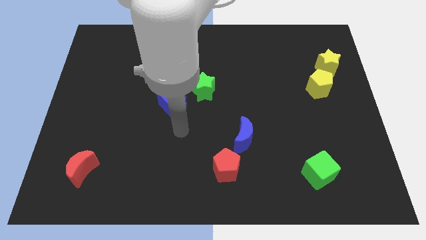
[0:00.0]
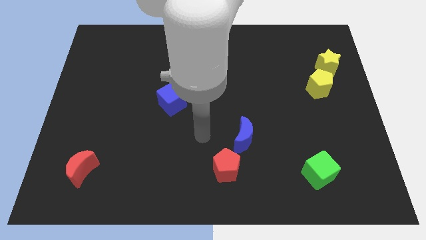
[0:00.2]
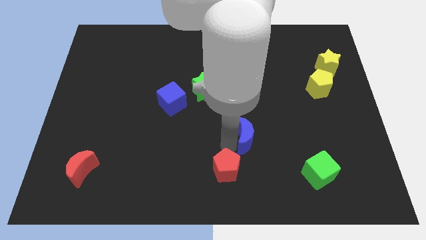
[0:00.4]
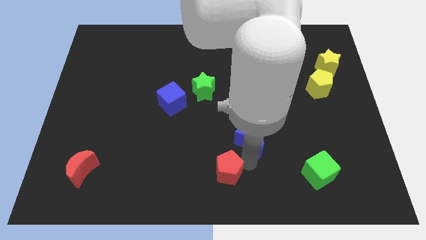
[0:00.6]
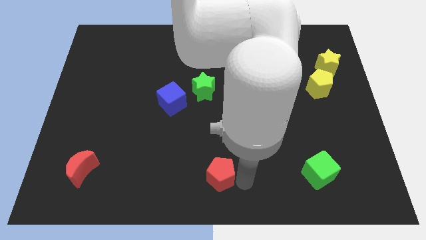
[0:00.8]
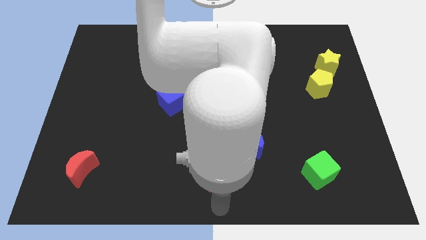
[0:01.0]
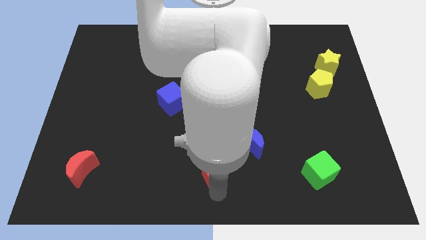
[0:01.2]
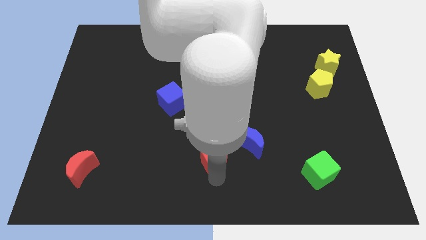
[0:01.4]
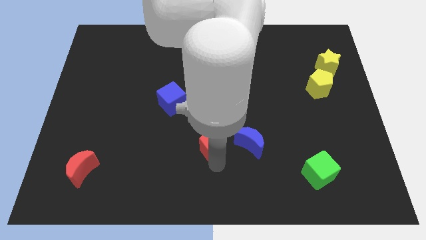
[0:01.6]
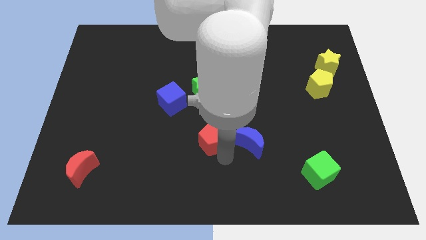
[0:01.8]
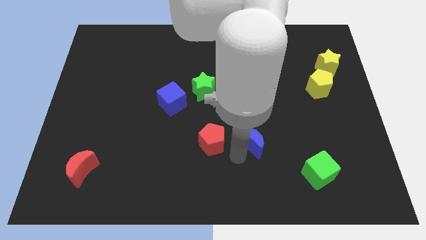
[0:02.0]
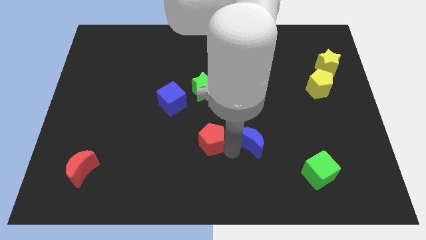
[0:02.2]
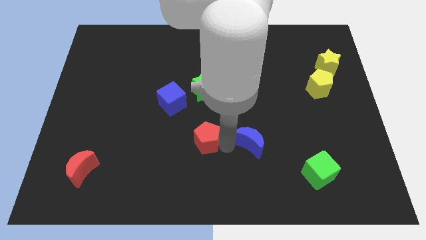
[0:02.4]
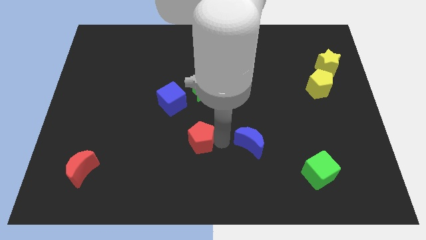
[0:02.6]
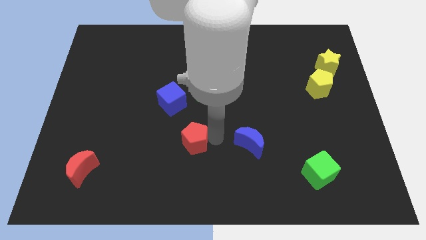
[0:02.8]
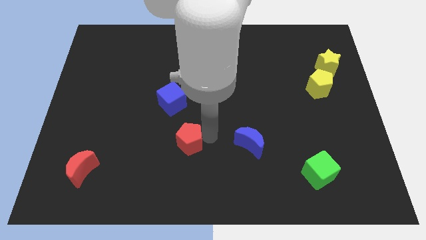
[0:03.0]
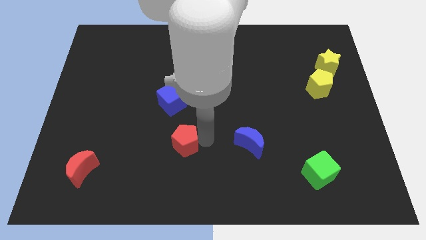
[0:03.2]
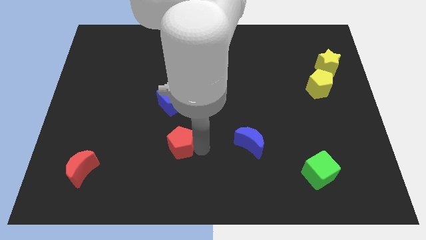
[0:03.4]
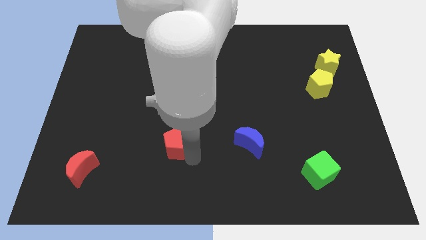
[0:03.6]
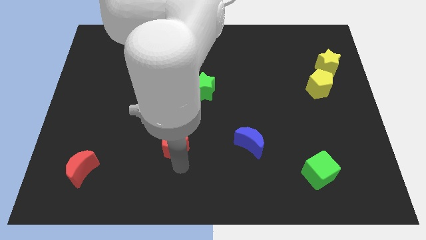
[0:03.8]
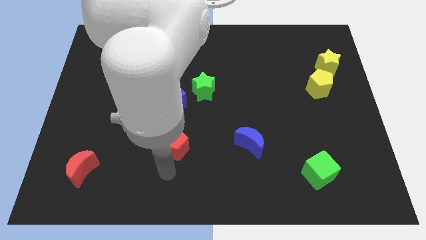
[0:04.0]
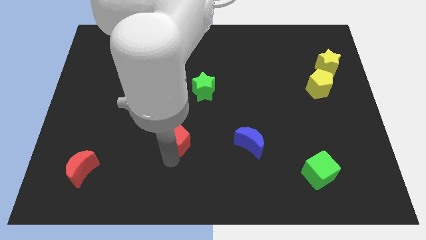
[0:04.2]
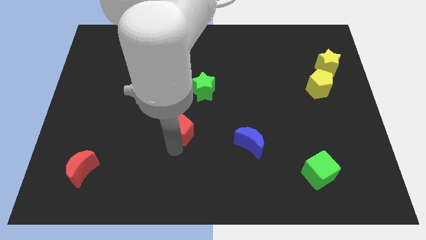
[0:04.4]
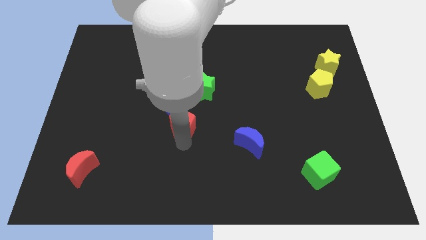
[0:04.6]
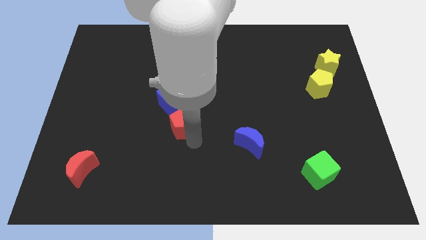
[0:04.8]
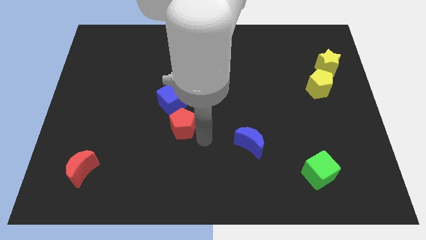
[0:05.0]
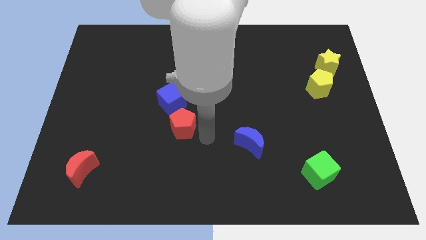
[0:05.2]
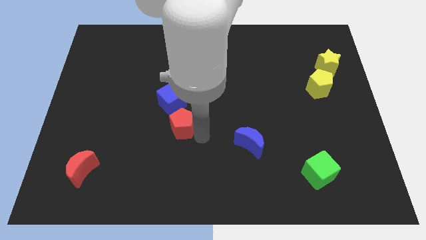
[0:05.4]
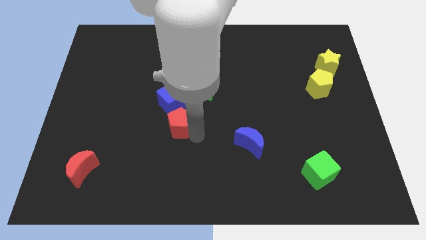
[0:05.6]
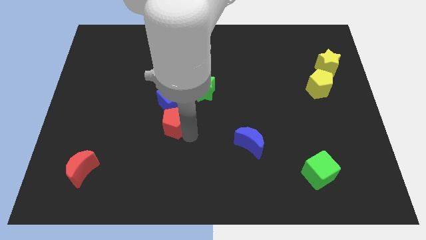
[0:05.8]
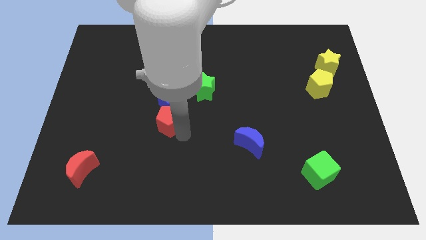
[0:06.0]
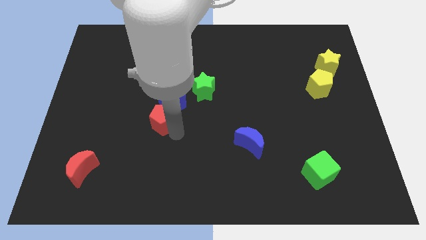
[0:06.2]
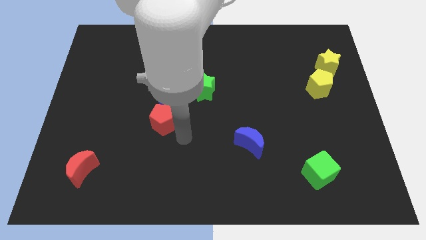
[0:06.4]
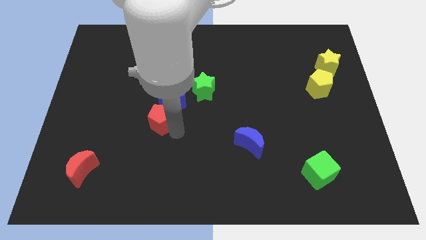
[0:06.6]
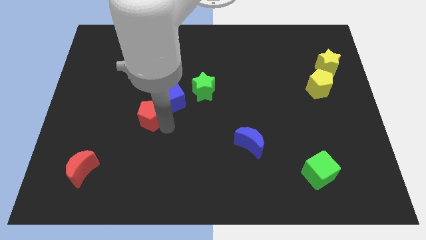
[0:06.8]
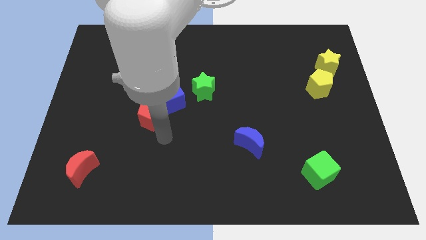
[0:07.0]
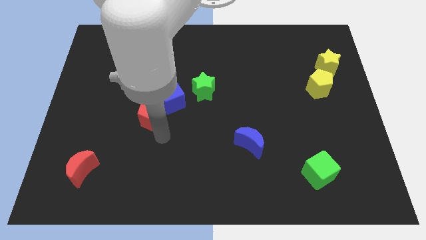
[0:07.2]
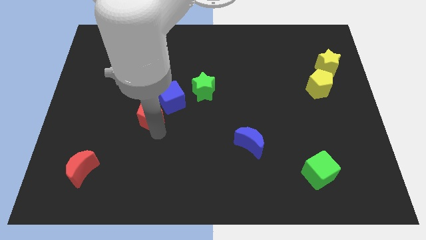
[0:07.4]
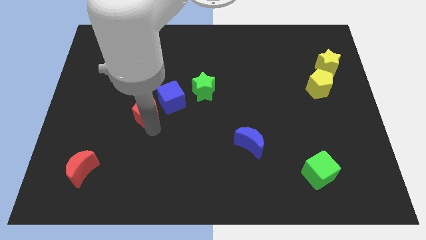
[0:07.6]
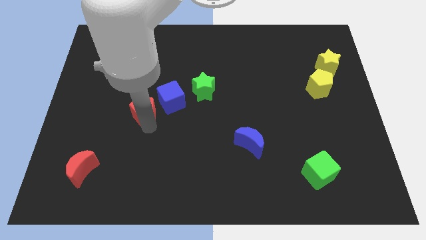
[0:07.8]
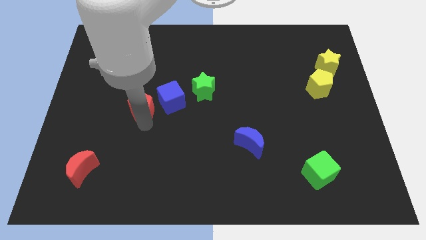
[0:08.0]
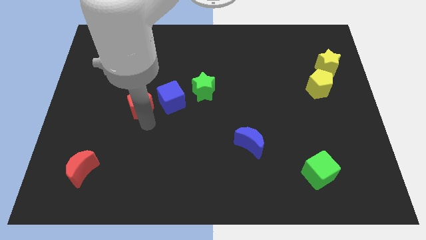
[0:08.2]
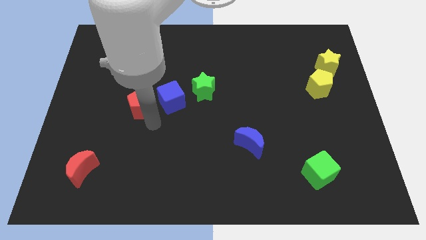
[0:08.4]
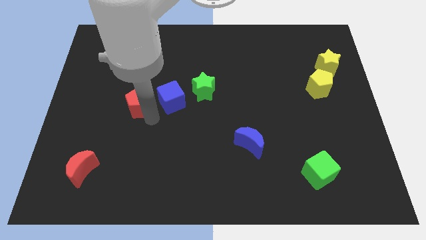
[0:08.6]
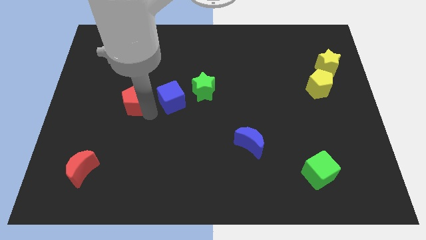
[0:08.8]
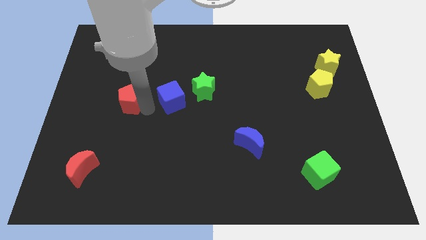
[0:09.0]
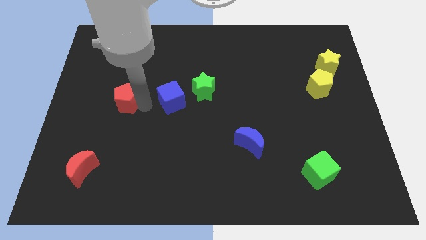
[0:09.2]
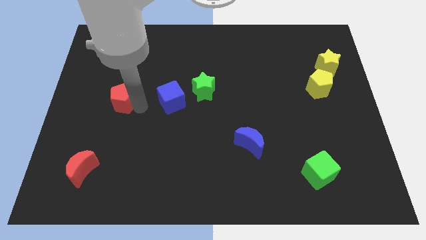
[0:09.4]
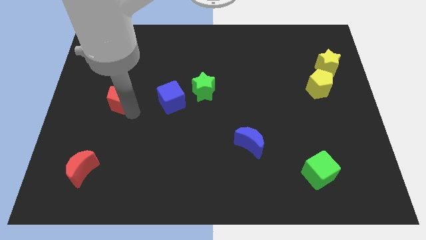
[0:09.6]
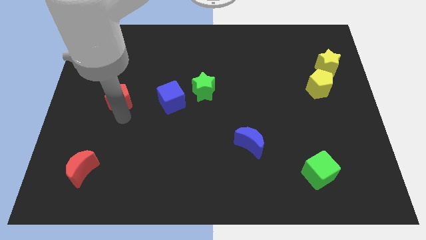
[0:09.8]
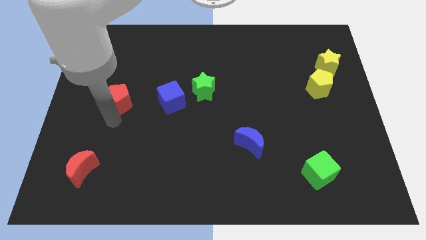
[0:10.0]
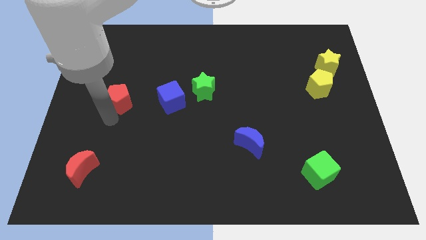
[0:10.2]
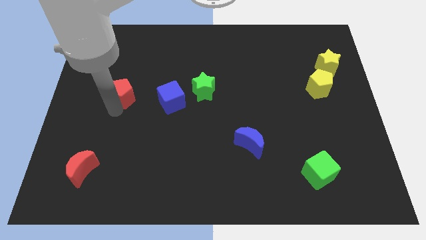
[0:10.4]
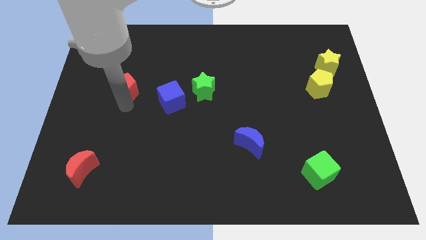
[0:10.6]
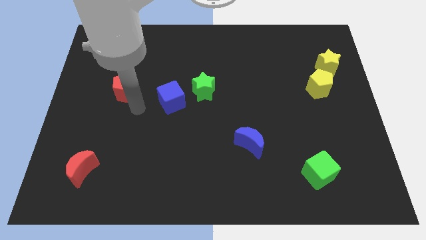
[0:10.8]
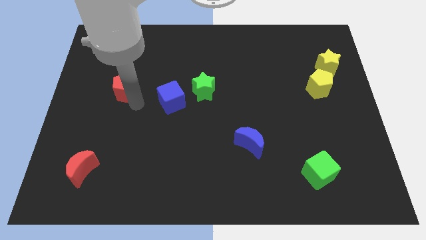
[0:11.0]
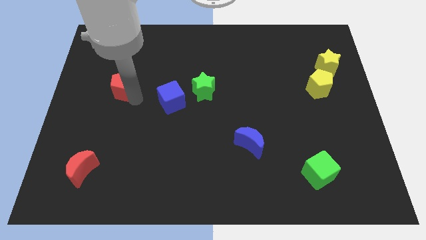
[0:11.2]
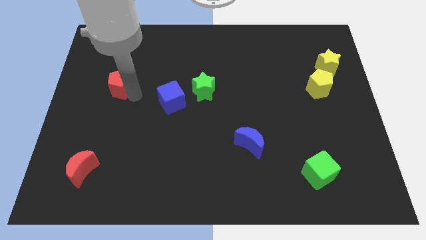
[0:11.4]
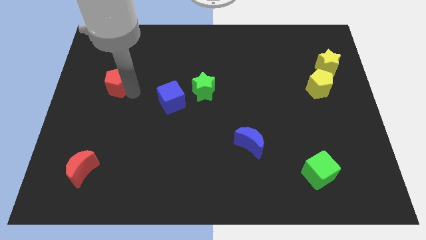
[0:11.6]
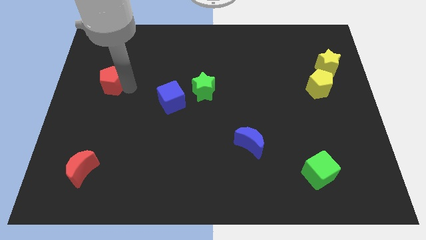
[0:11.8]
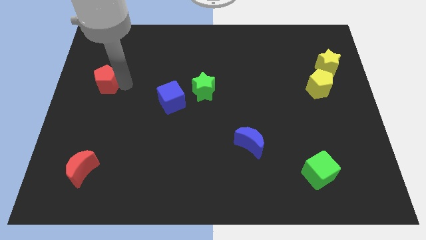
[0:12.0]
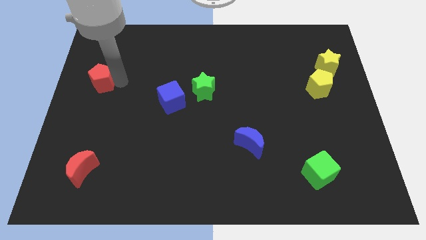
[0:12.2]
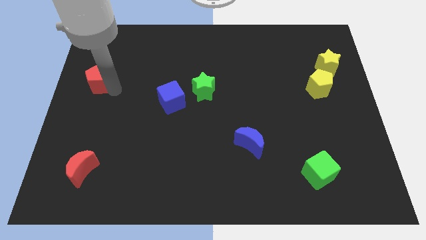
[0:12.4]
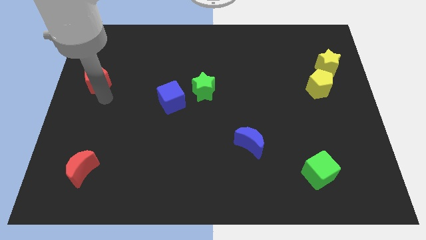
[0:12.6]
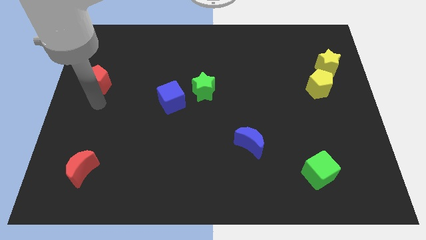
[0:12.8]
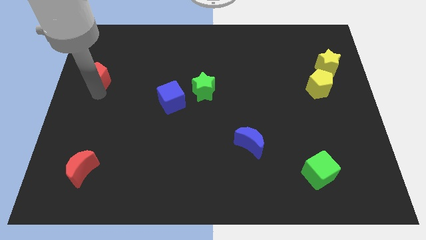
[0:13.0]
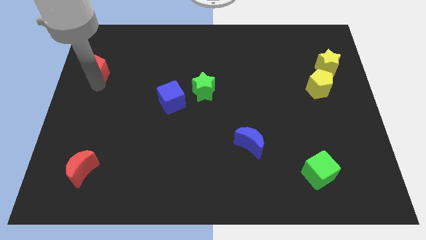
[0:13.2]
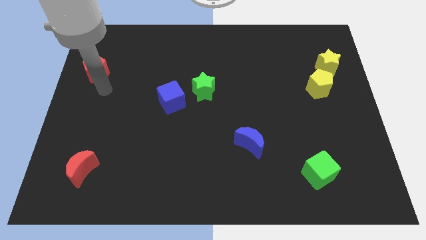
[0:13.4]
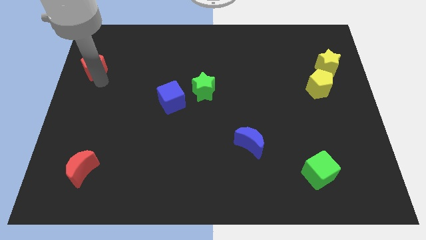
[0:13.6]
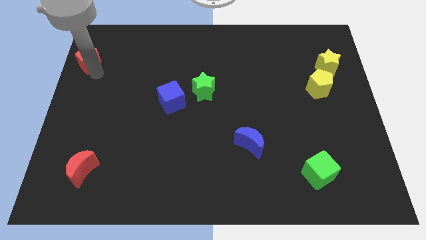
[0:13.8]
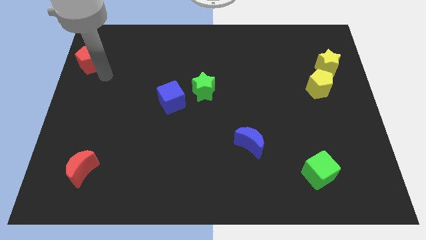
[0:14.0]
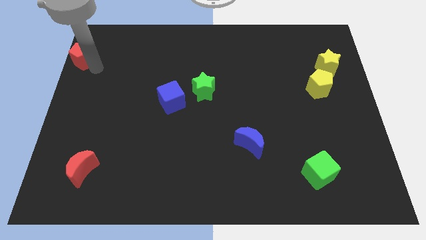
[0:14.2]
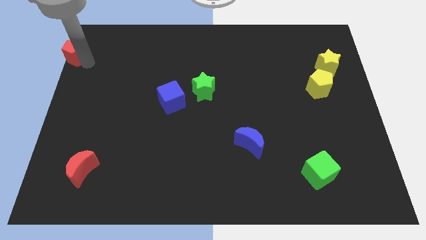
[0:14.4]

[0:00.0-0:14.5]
move the red pentagon to the upper left corner

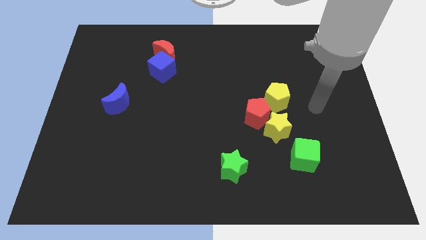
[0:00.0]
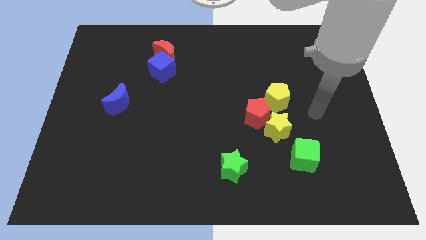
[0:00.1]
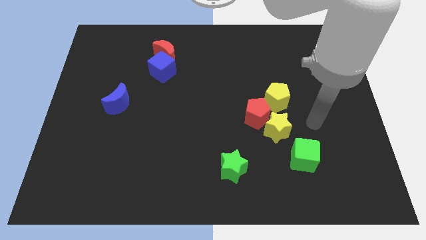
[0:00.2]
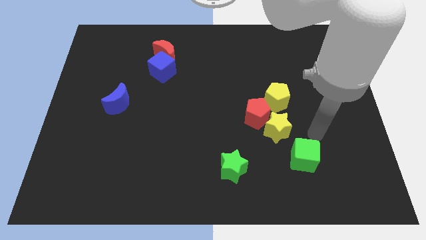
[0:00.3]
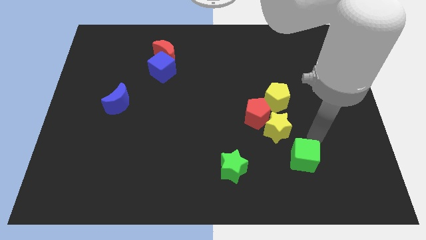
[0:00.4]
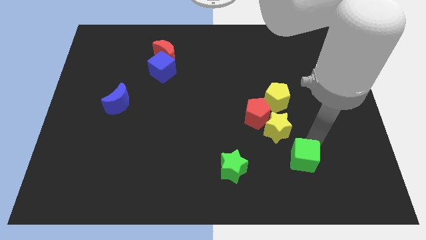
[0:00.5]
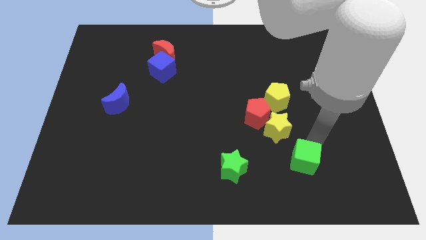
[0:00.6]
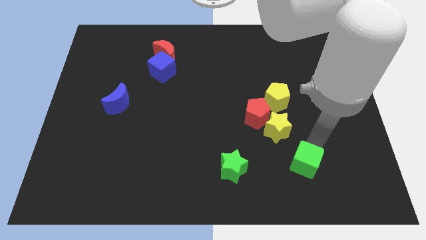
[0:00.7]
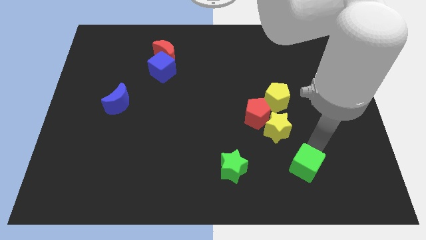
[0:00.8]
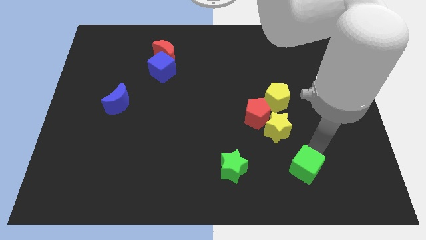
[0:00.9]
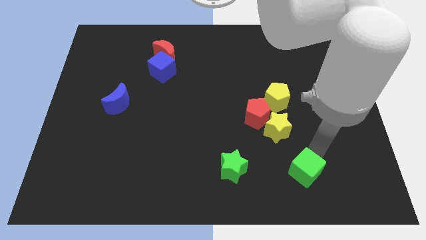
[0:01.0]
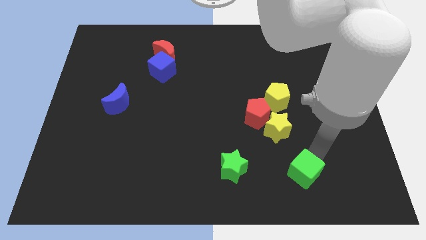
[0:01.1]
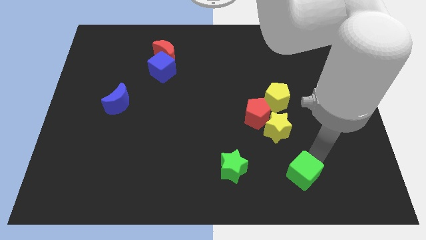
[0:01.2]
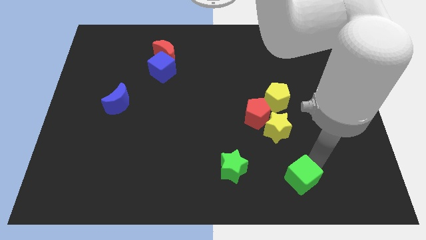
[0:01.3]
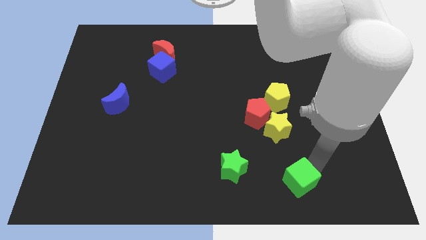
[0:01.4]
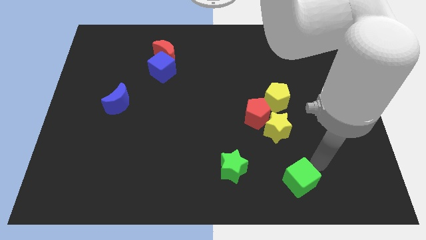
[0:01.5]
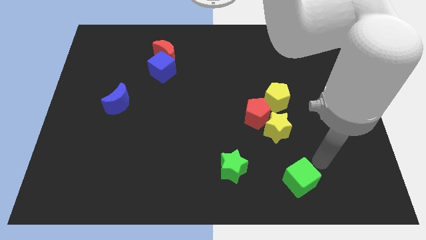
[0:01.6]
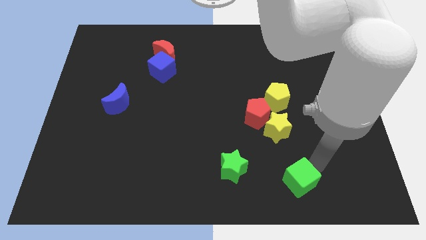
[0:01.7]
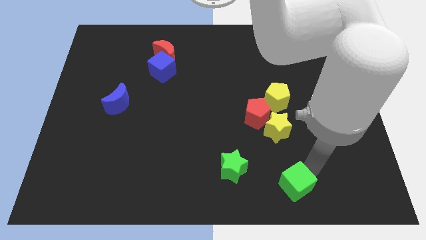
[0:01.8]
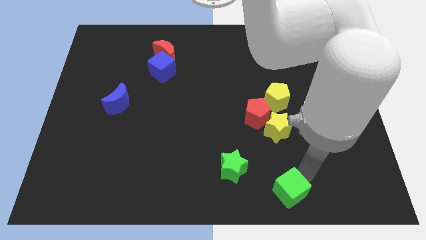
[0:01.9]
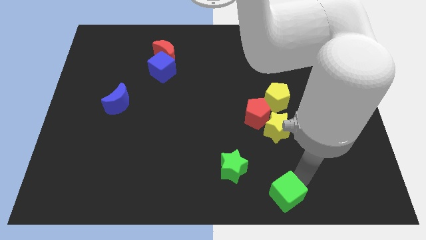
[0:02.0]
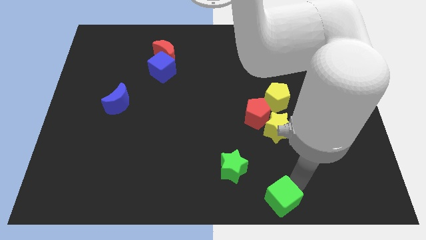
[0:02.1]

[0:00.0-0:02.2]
push the green cube to the bottom side
